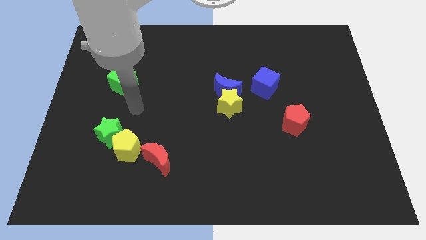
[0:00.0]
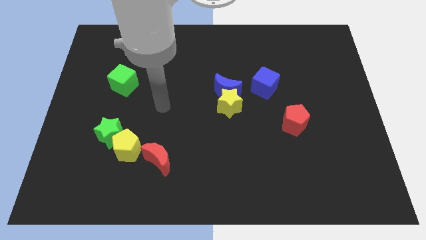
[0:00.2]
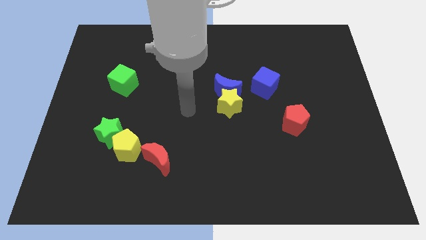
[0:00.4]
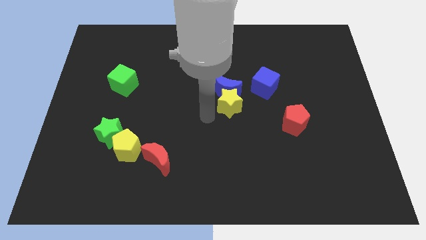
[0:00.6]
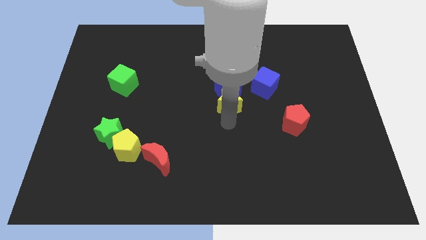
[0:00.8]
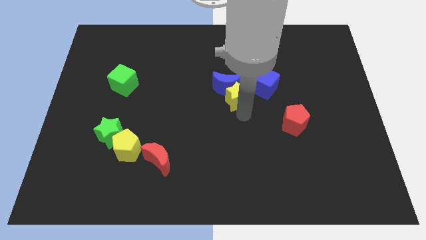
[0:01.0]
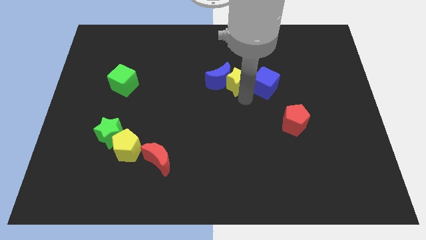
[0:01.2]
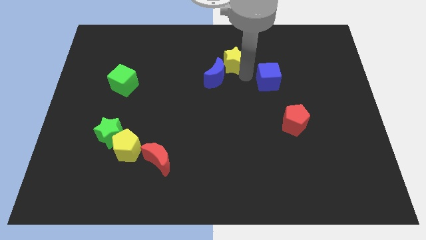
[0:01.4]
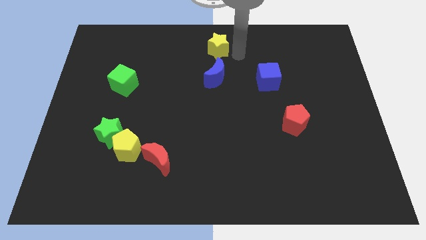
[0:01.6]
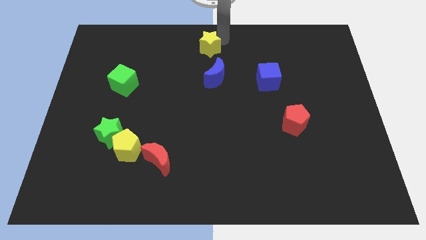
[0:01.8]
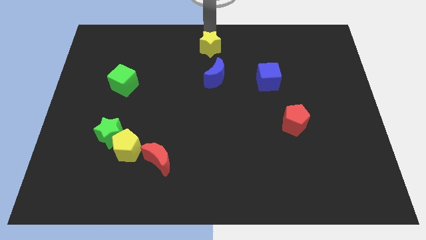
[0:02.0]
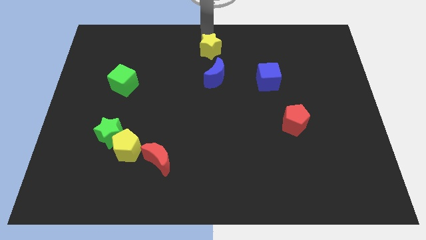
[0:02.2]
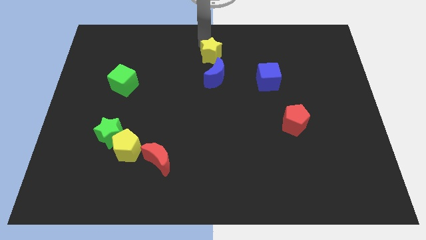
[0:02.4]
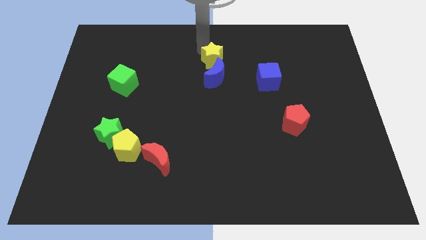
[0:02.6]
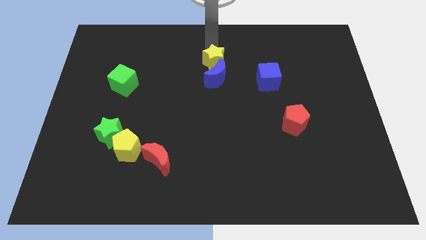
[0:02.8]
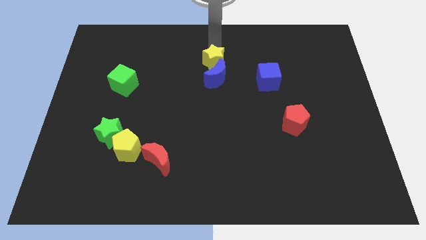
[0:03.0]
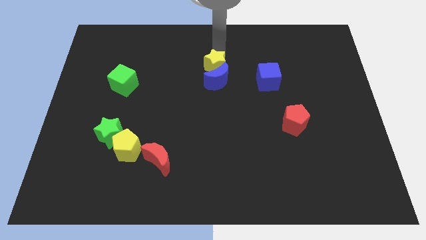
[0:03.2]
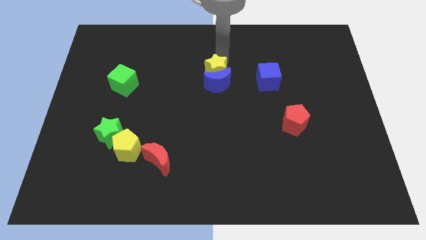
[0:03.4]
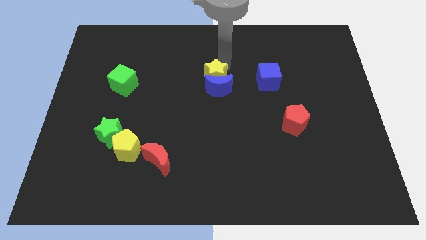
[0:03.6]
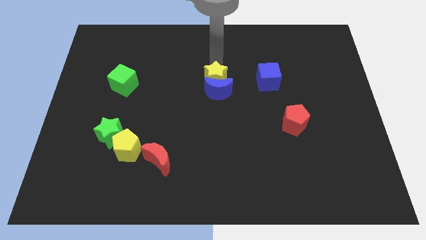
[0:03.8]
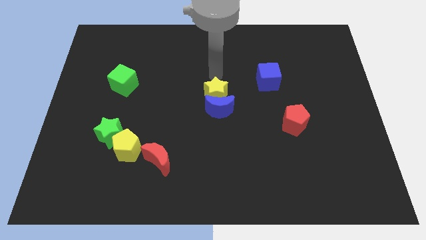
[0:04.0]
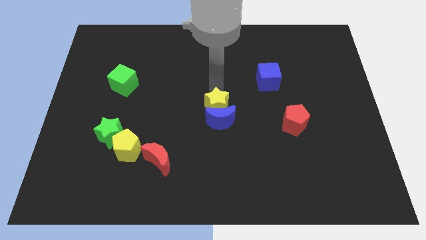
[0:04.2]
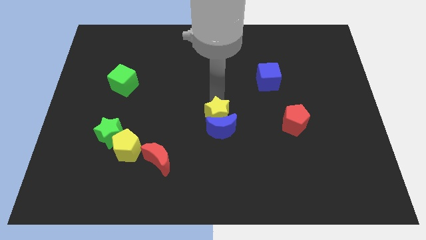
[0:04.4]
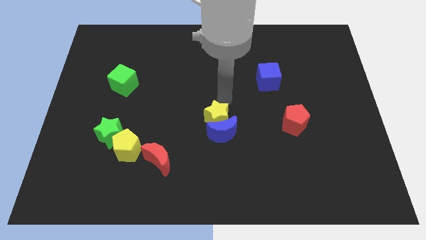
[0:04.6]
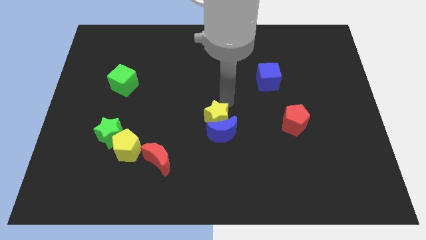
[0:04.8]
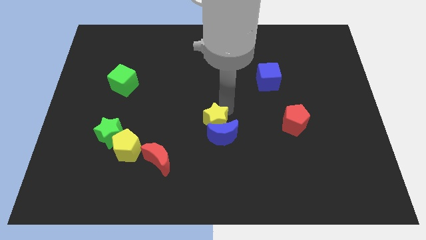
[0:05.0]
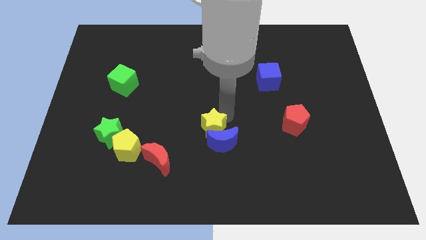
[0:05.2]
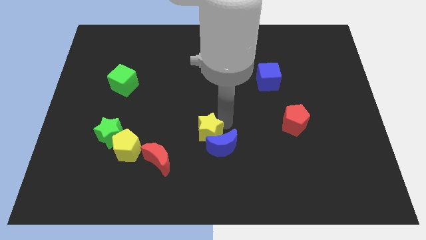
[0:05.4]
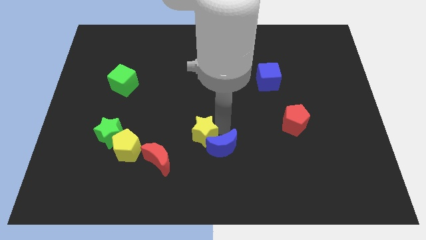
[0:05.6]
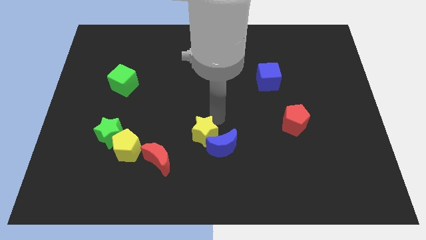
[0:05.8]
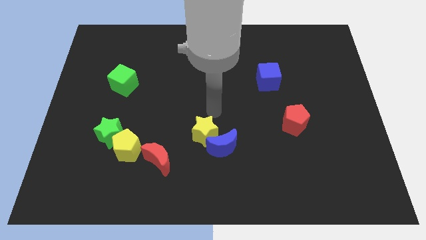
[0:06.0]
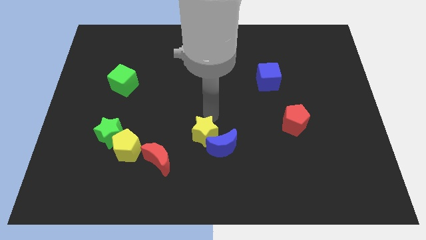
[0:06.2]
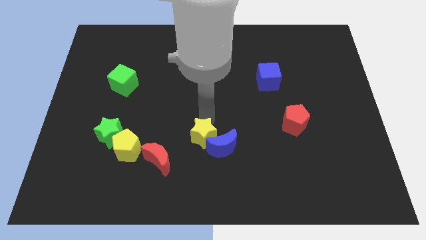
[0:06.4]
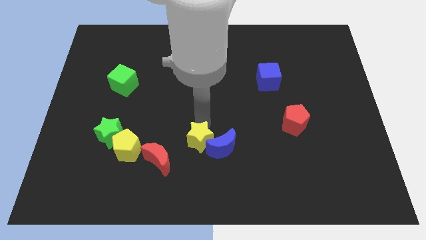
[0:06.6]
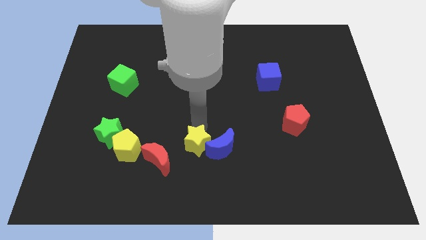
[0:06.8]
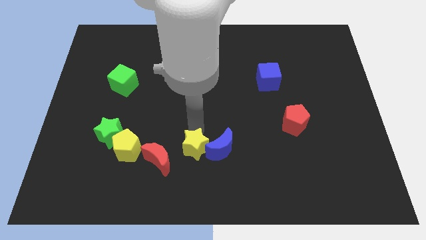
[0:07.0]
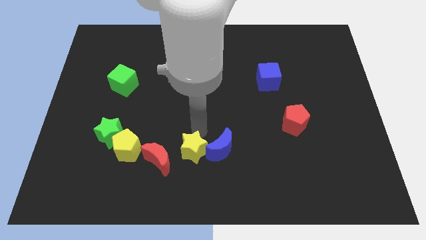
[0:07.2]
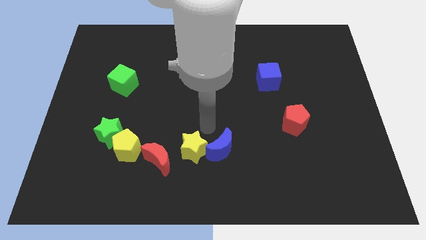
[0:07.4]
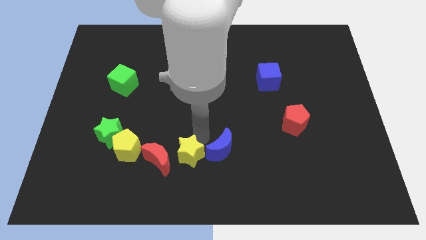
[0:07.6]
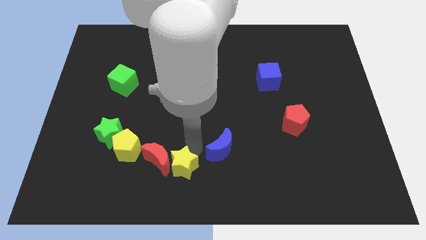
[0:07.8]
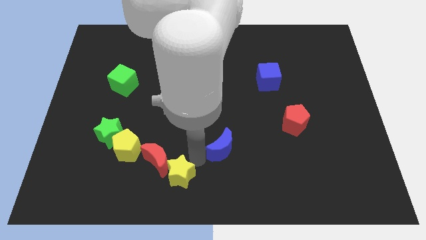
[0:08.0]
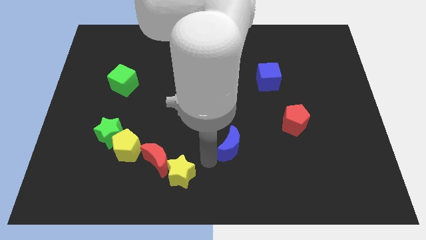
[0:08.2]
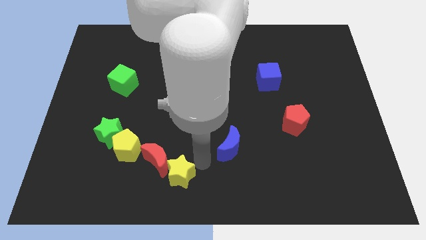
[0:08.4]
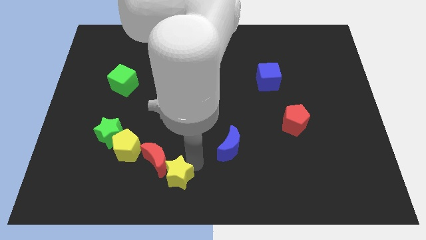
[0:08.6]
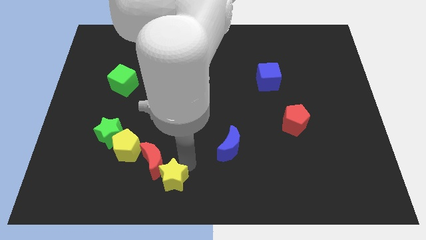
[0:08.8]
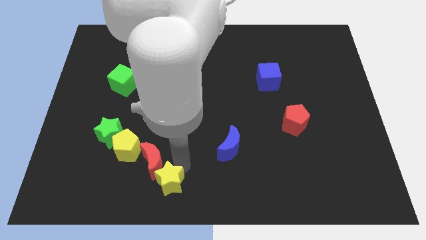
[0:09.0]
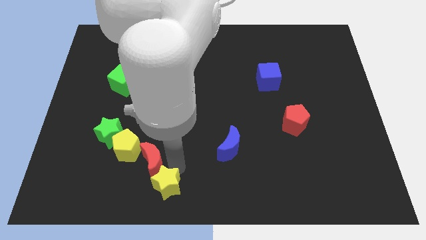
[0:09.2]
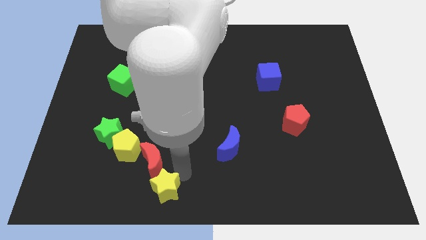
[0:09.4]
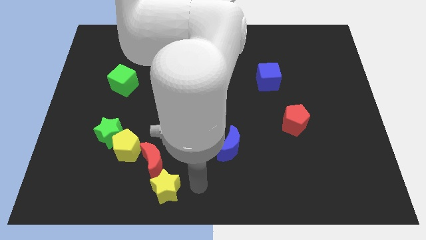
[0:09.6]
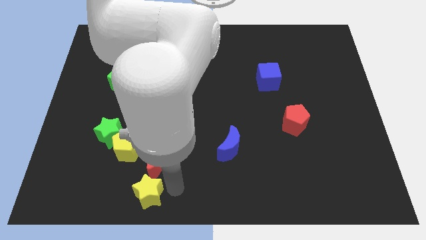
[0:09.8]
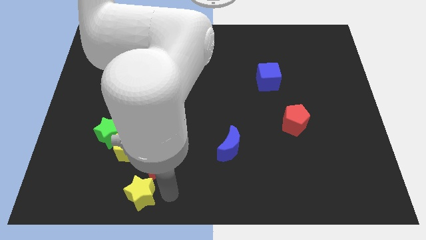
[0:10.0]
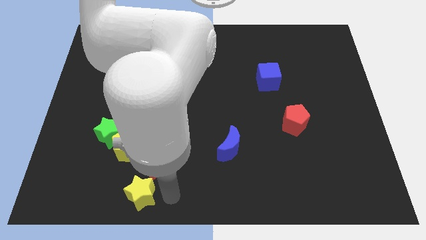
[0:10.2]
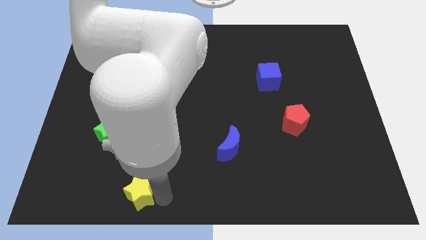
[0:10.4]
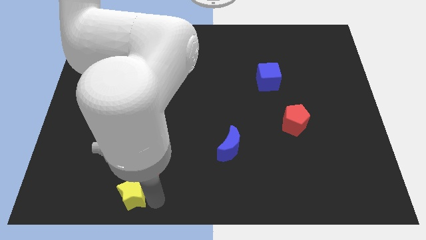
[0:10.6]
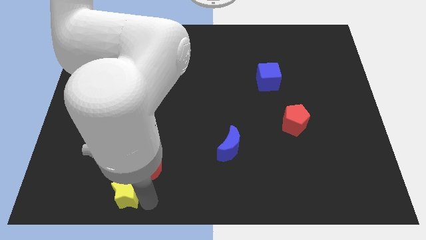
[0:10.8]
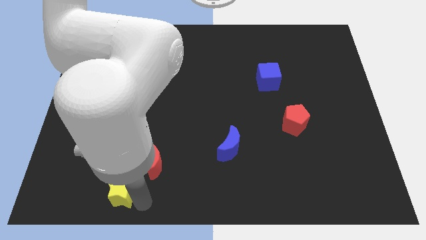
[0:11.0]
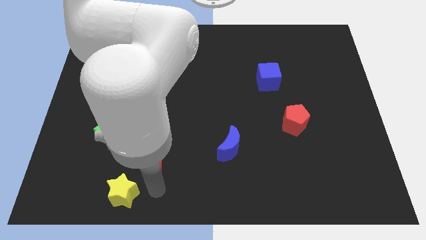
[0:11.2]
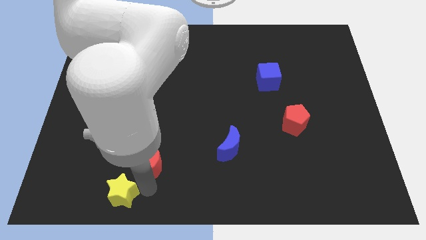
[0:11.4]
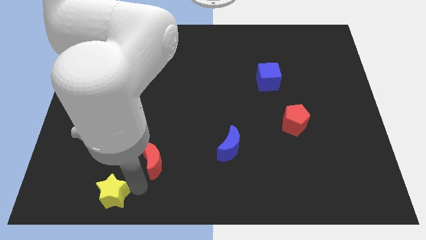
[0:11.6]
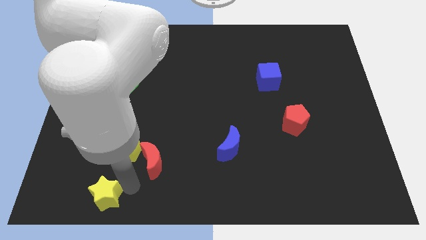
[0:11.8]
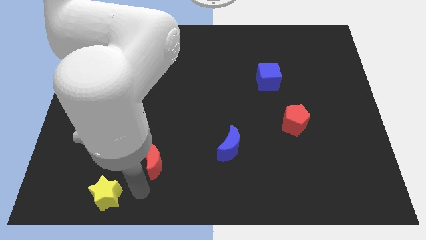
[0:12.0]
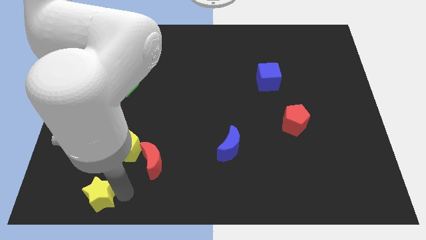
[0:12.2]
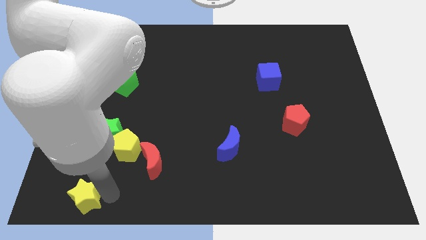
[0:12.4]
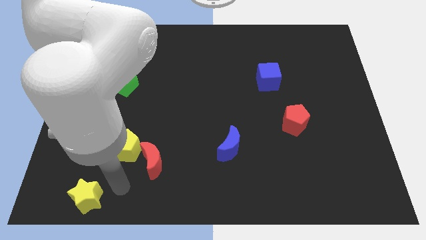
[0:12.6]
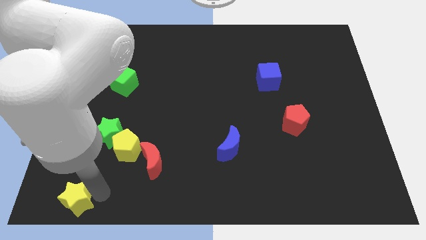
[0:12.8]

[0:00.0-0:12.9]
move the yellow star to the bottom left

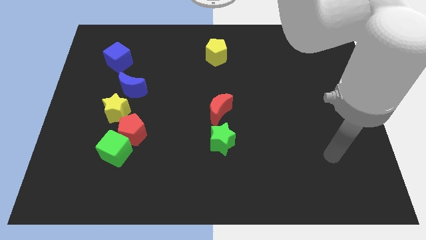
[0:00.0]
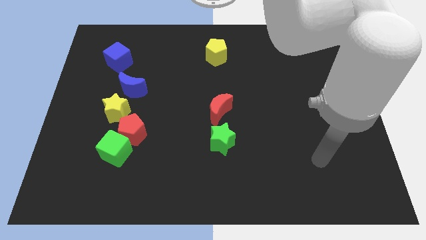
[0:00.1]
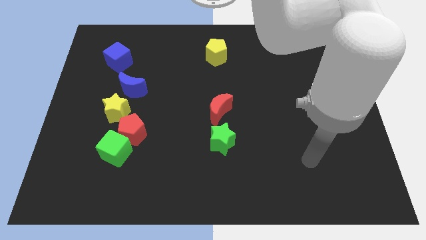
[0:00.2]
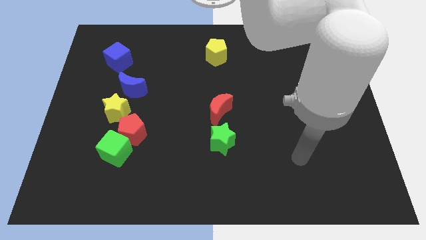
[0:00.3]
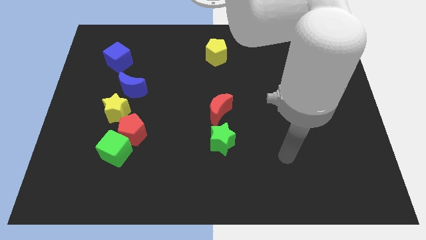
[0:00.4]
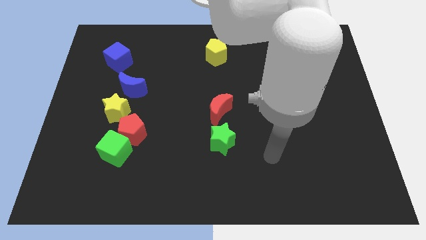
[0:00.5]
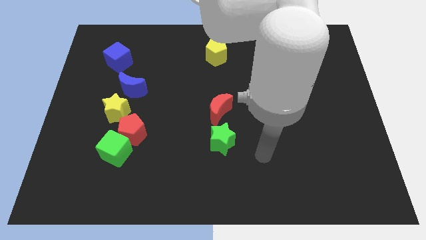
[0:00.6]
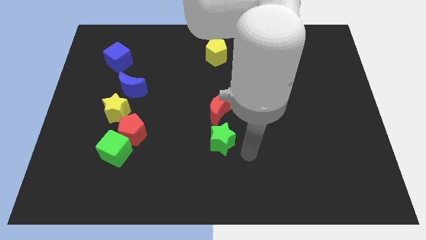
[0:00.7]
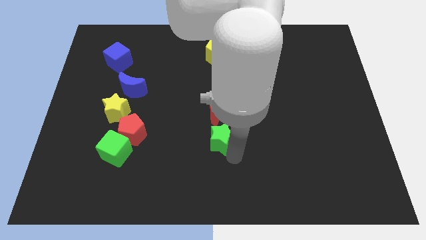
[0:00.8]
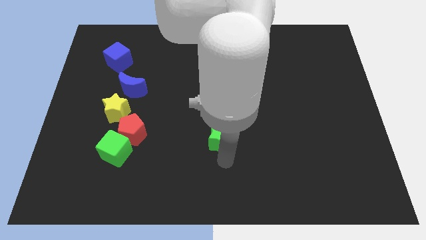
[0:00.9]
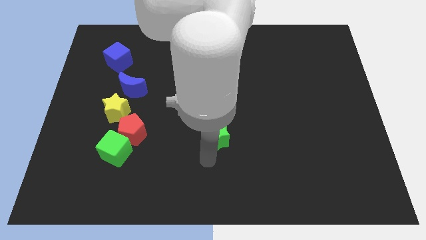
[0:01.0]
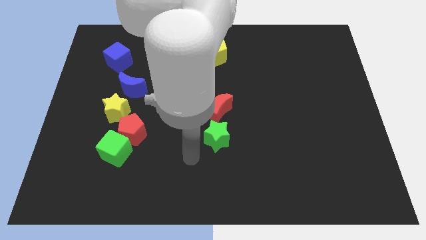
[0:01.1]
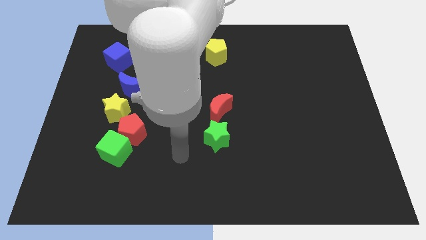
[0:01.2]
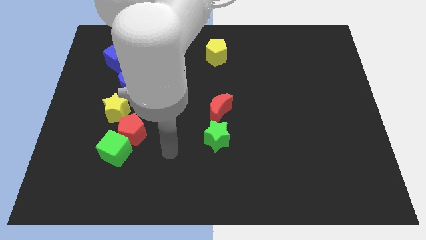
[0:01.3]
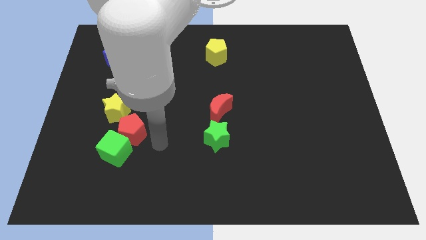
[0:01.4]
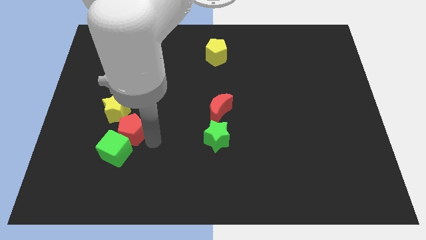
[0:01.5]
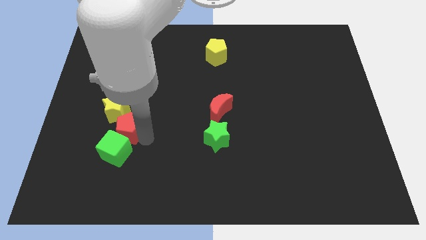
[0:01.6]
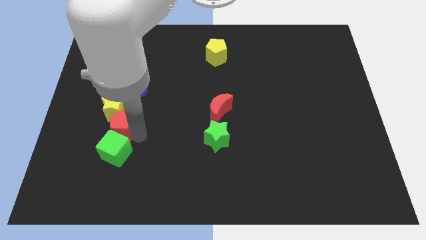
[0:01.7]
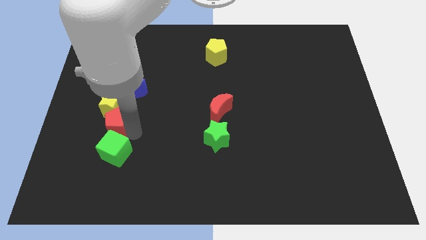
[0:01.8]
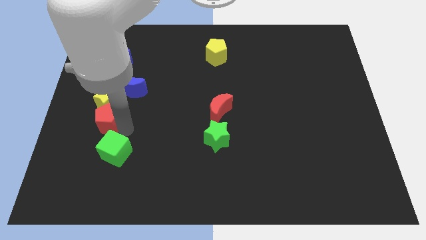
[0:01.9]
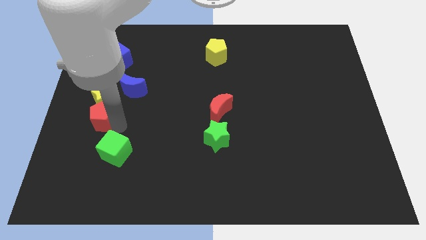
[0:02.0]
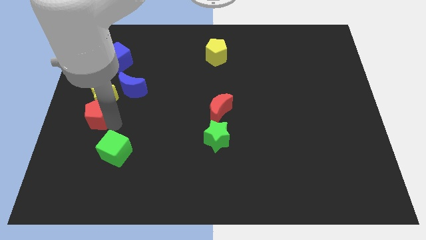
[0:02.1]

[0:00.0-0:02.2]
move the red pentagon to the left side
